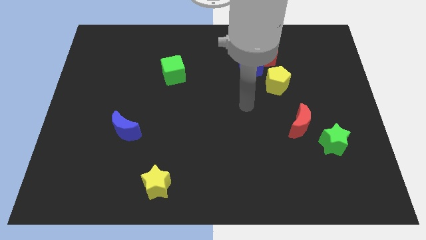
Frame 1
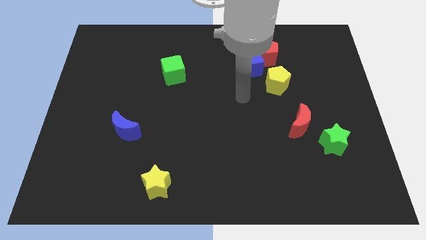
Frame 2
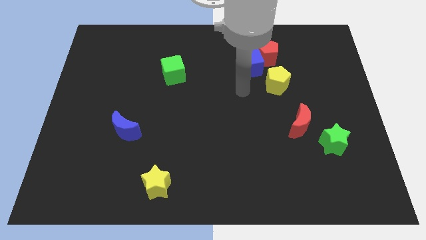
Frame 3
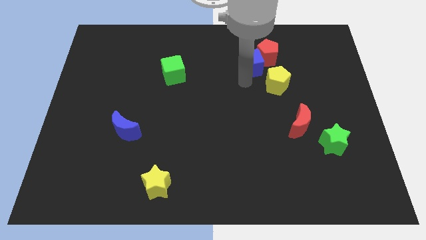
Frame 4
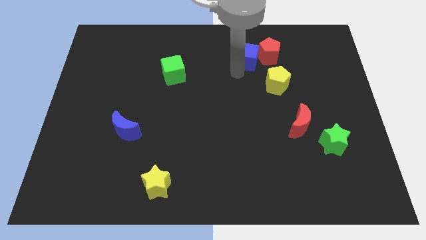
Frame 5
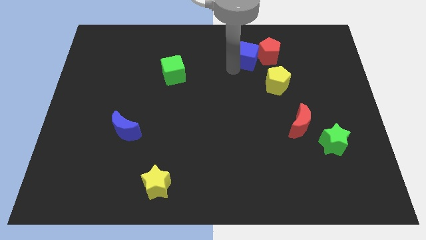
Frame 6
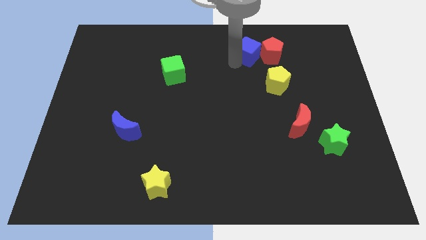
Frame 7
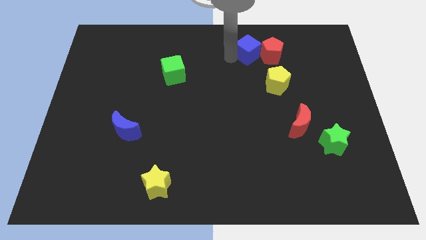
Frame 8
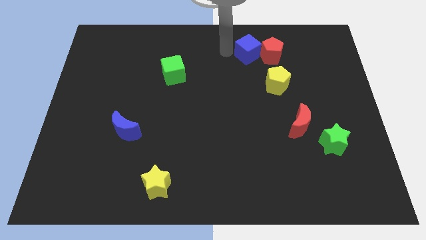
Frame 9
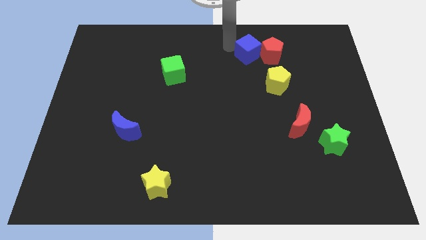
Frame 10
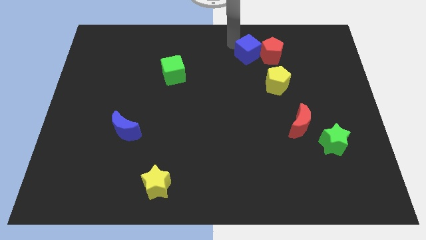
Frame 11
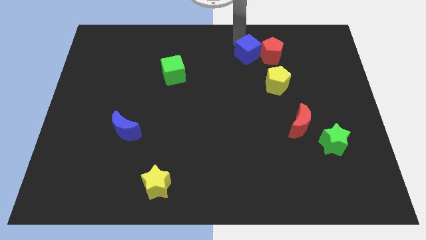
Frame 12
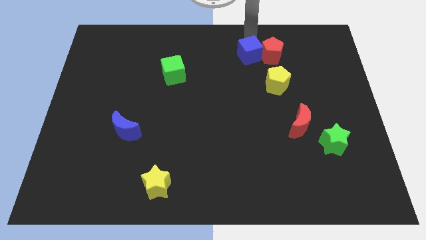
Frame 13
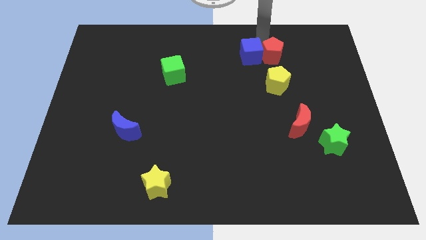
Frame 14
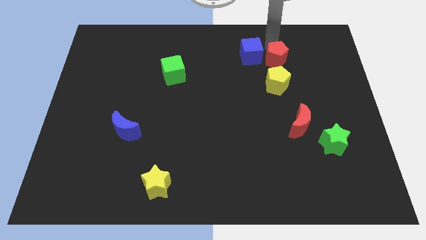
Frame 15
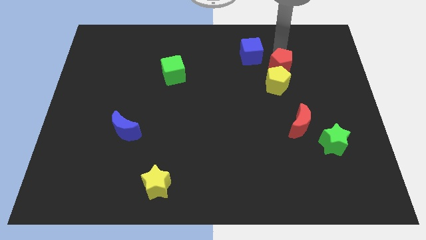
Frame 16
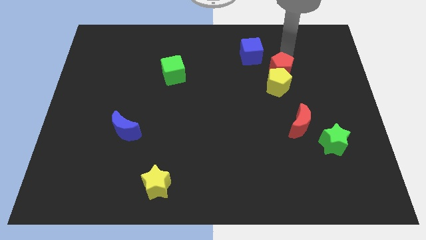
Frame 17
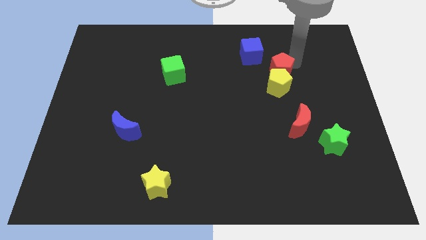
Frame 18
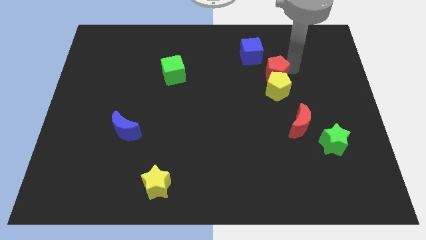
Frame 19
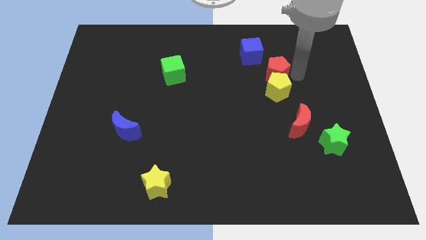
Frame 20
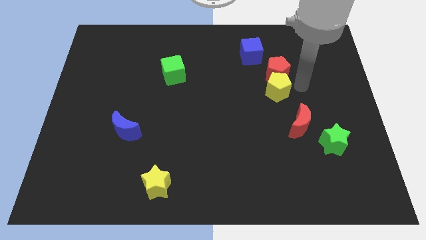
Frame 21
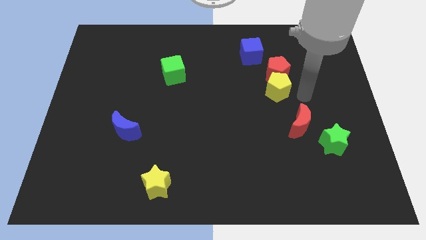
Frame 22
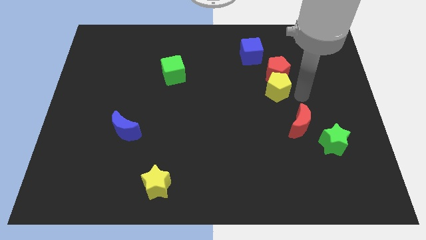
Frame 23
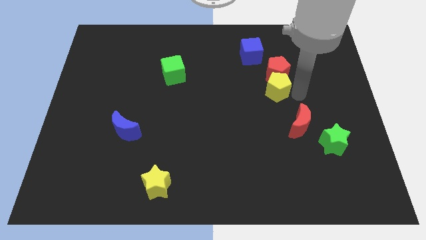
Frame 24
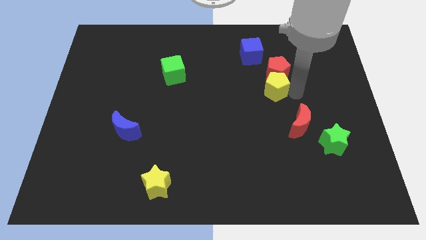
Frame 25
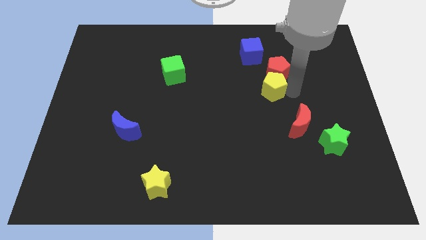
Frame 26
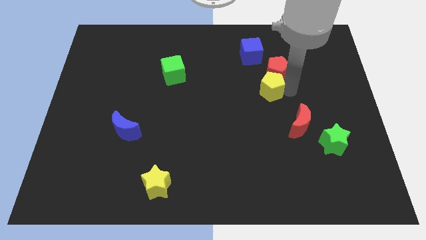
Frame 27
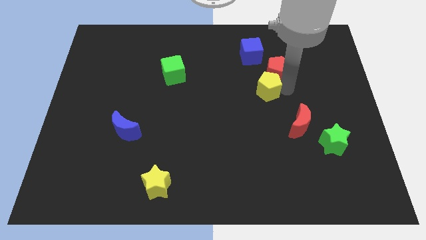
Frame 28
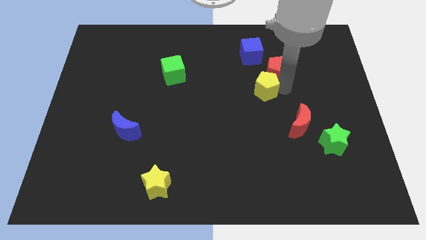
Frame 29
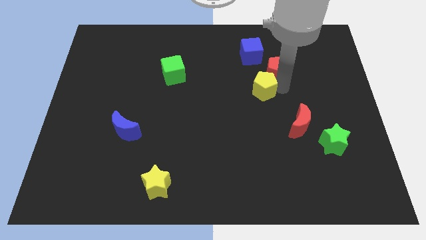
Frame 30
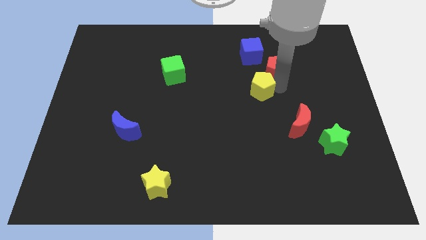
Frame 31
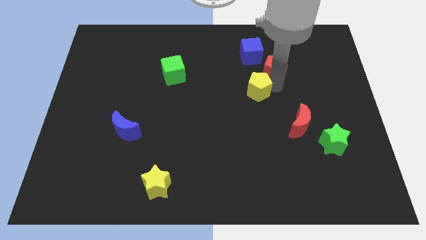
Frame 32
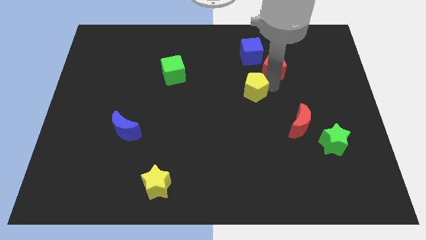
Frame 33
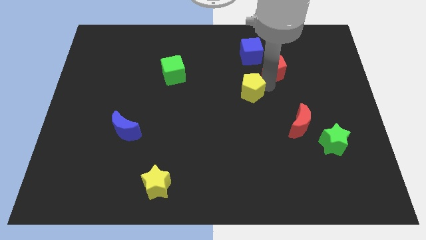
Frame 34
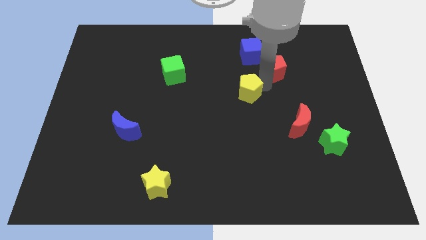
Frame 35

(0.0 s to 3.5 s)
slightly move the yellow pentagon to the left

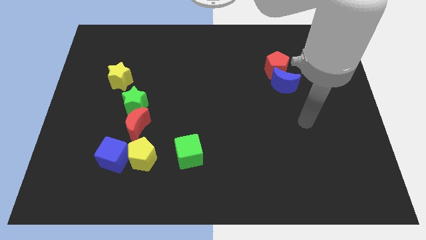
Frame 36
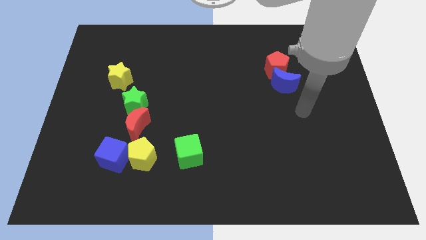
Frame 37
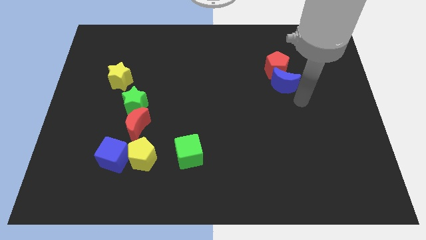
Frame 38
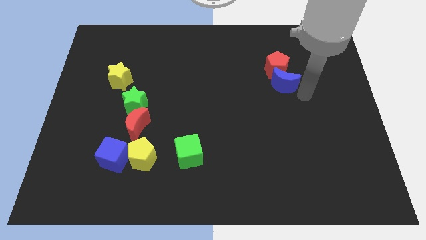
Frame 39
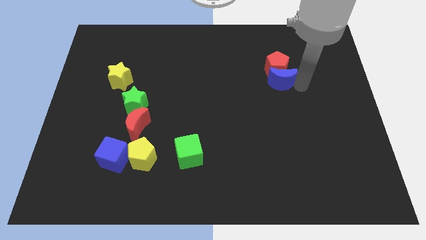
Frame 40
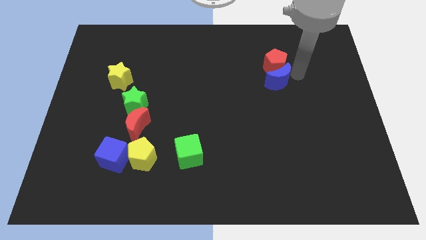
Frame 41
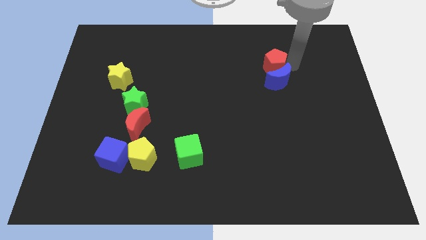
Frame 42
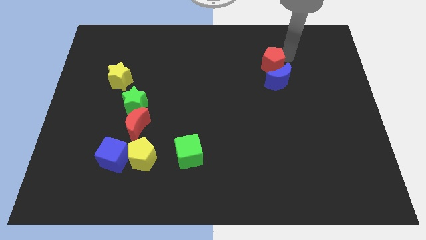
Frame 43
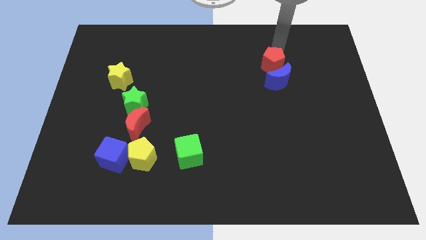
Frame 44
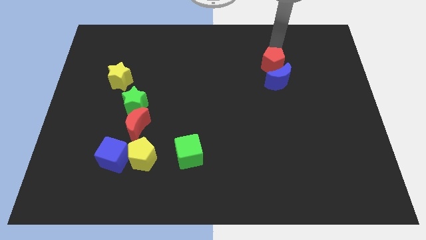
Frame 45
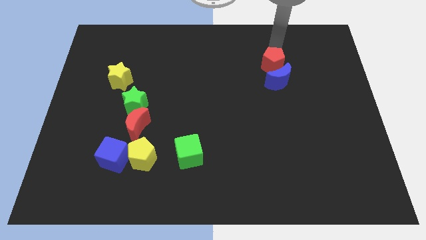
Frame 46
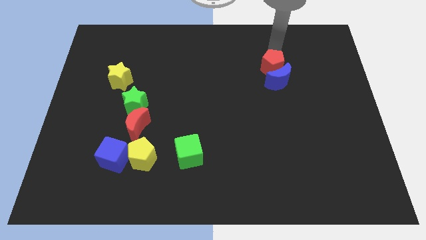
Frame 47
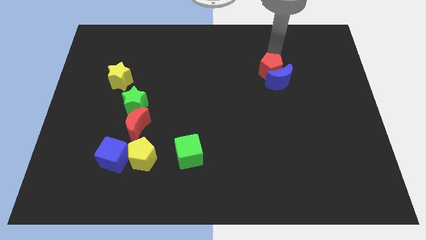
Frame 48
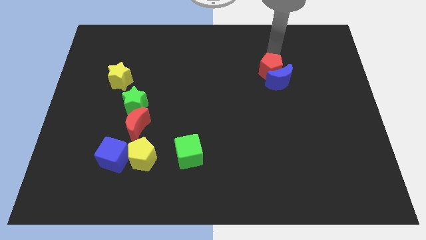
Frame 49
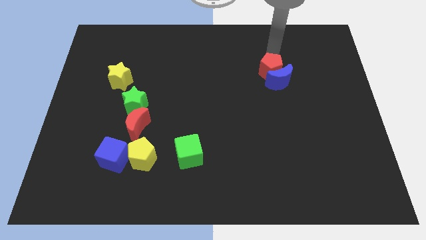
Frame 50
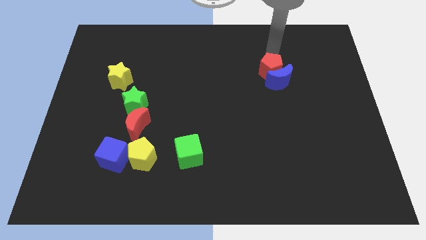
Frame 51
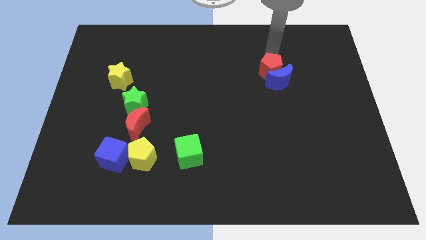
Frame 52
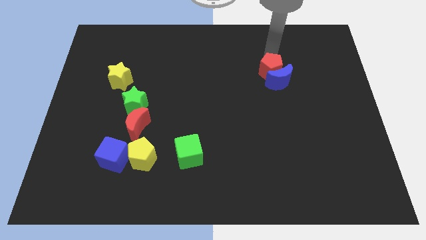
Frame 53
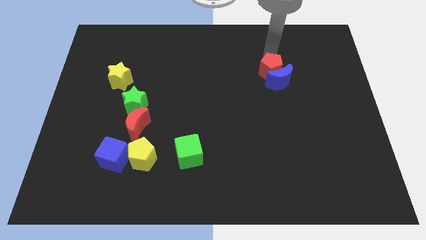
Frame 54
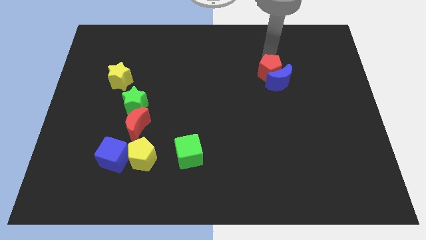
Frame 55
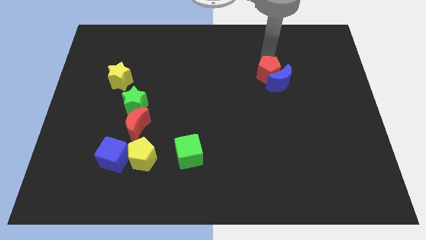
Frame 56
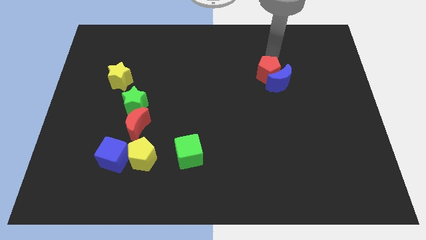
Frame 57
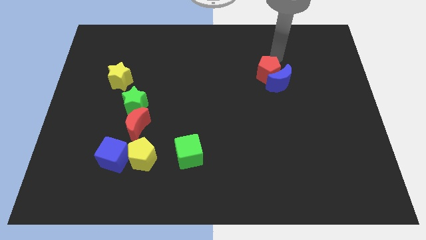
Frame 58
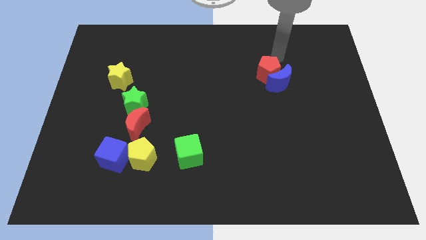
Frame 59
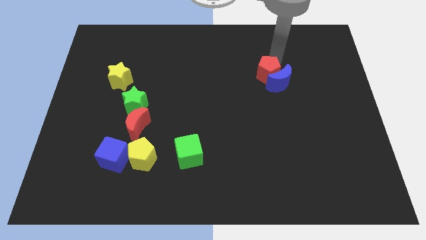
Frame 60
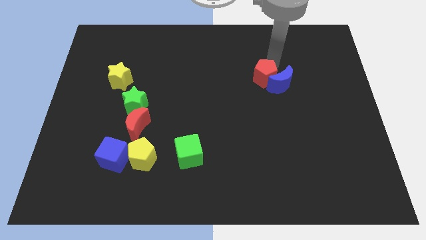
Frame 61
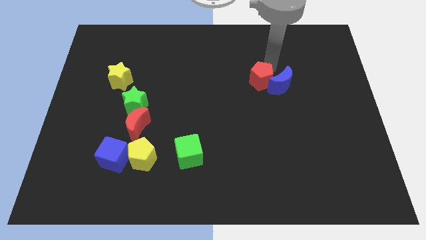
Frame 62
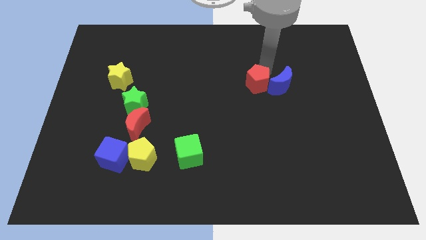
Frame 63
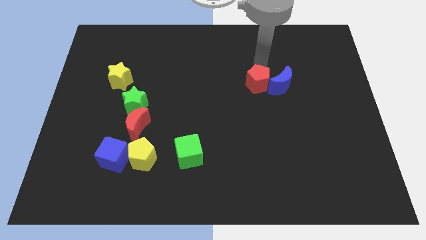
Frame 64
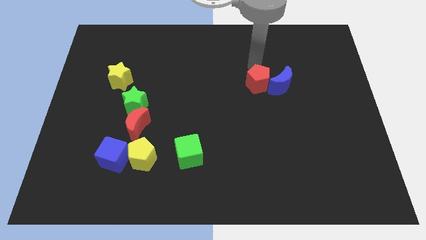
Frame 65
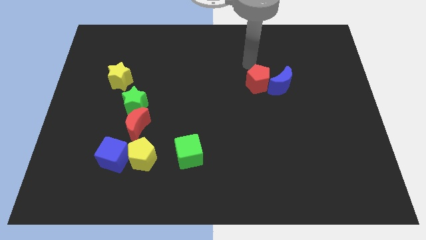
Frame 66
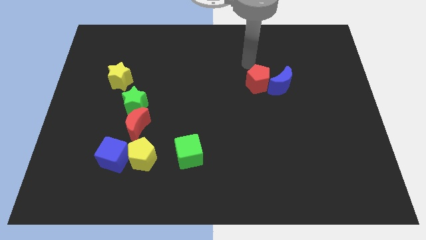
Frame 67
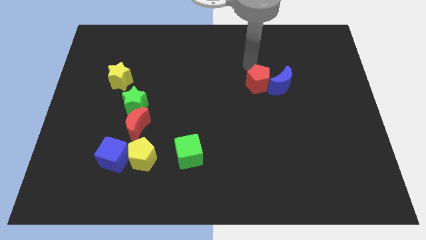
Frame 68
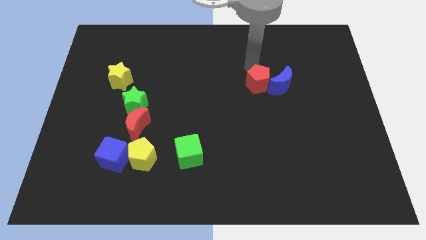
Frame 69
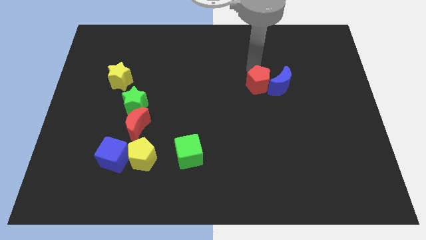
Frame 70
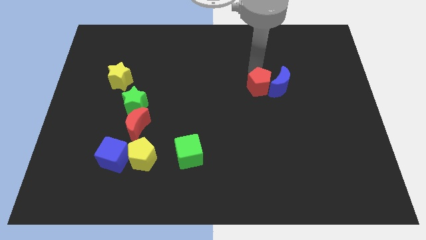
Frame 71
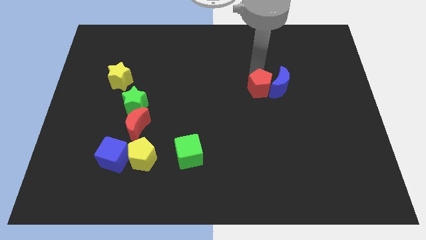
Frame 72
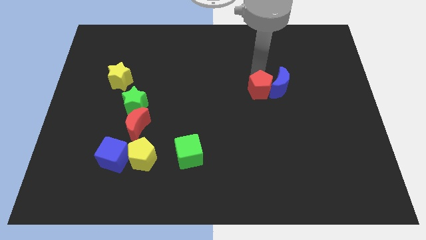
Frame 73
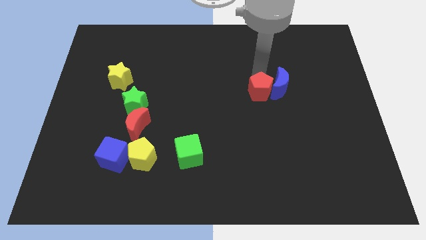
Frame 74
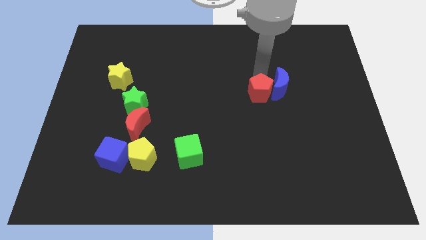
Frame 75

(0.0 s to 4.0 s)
move the red pentagon down slightly
